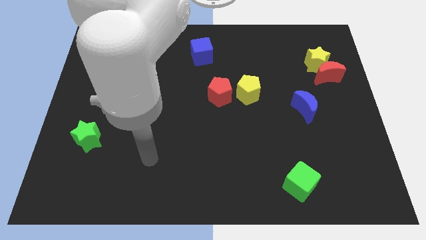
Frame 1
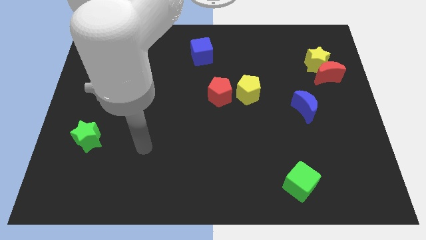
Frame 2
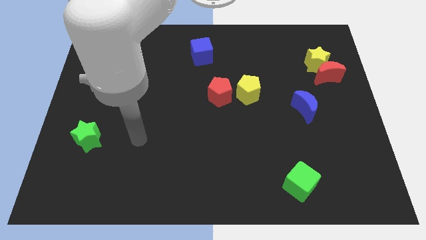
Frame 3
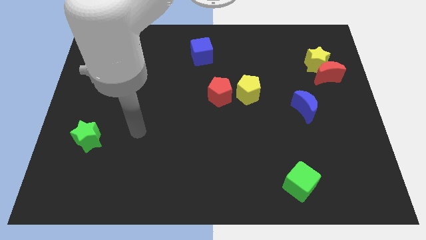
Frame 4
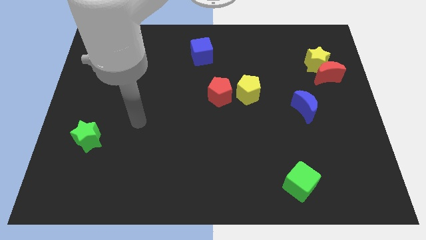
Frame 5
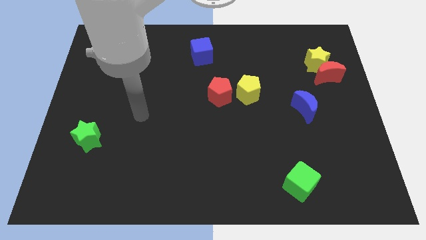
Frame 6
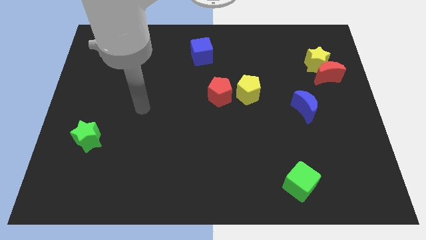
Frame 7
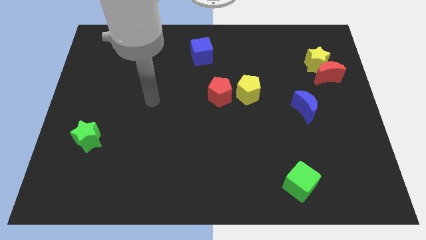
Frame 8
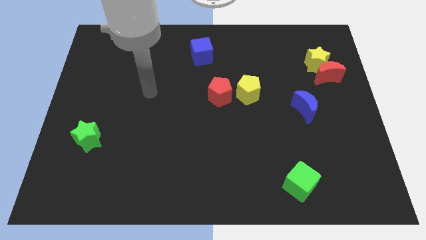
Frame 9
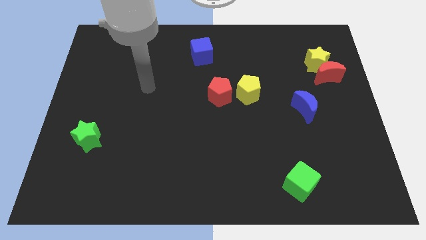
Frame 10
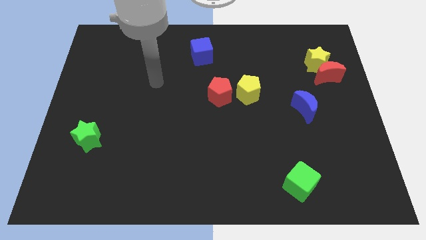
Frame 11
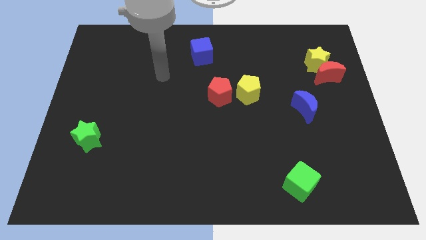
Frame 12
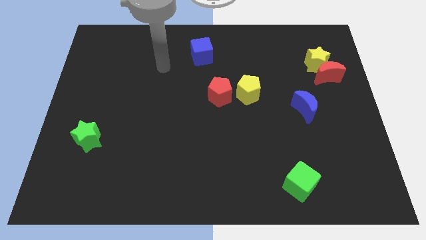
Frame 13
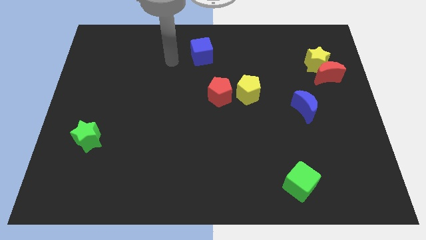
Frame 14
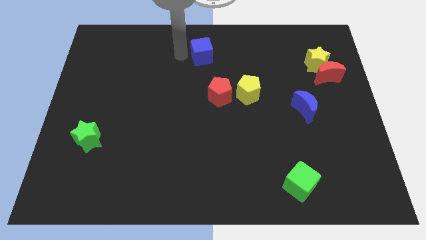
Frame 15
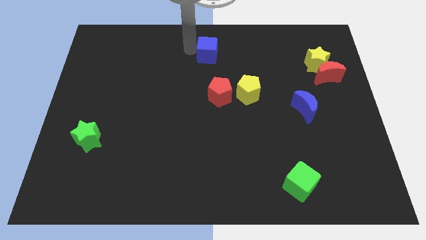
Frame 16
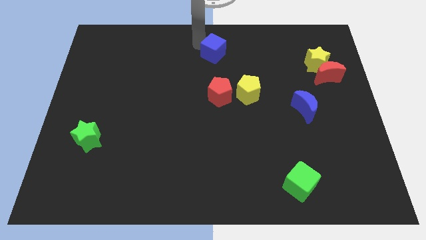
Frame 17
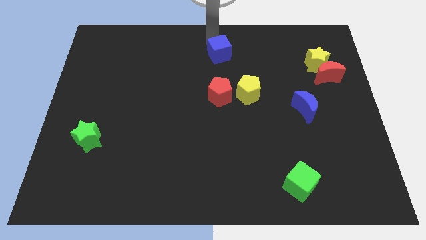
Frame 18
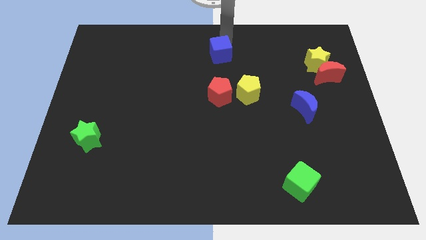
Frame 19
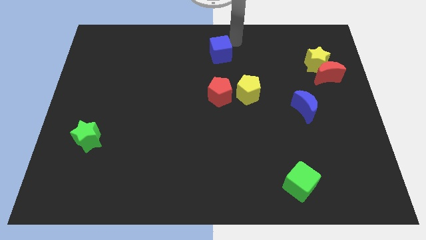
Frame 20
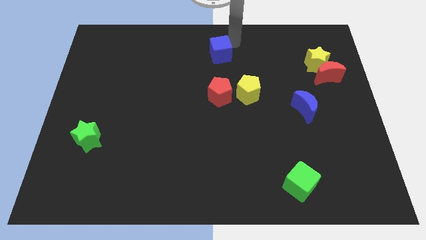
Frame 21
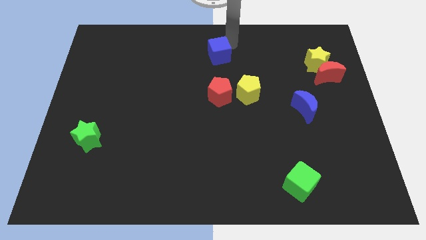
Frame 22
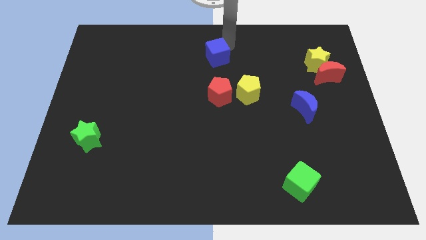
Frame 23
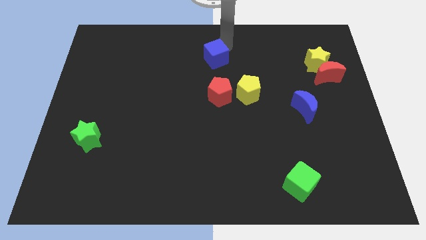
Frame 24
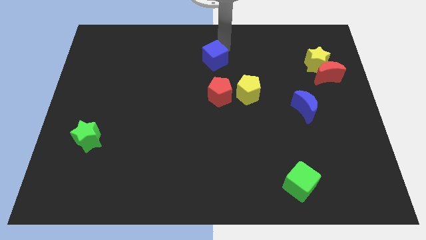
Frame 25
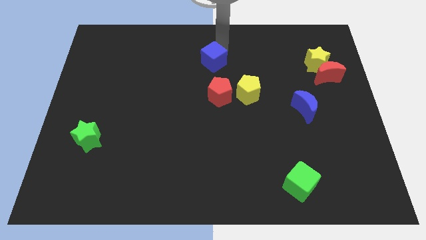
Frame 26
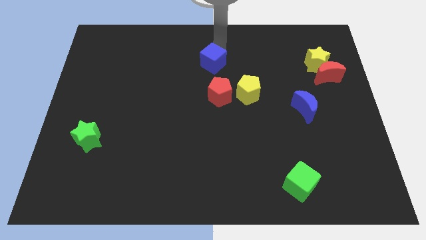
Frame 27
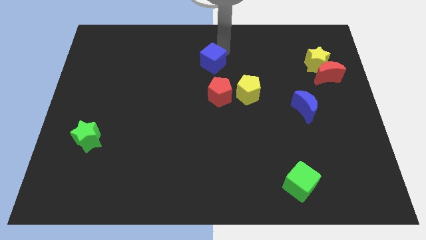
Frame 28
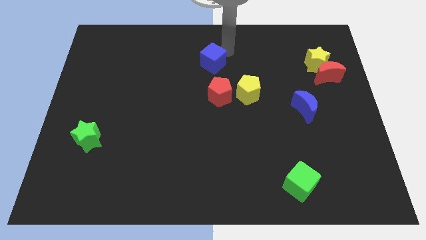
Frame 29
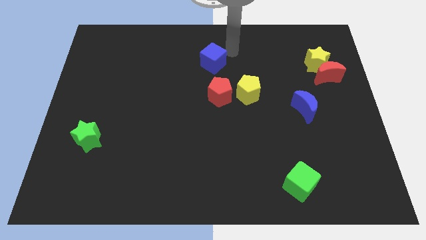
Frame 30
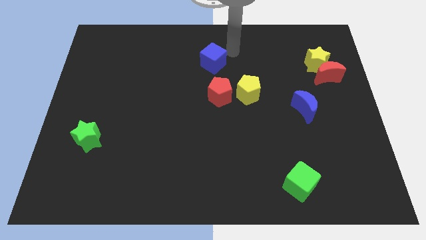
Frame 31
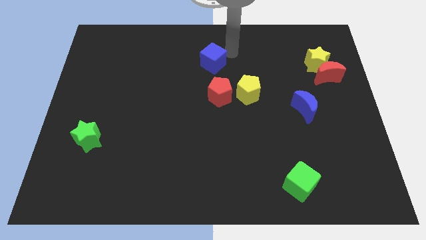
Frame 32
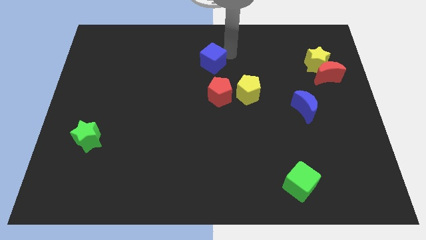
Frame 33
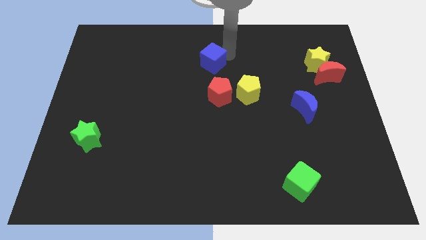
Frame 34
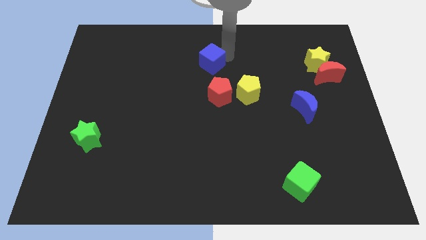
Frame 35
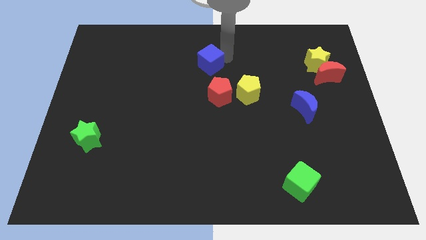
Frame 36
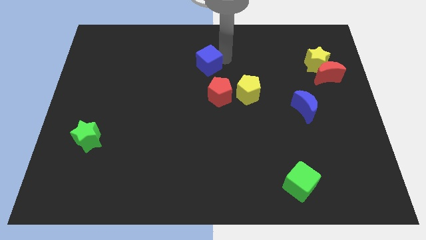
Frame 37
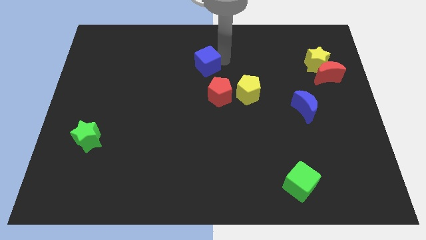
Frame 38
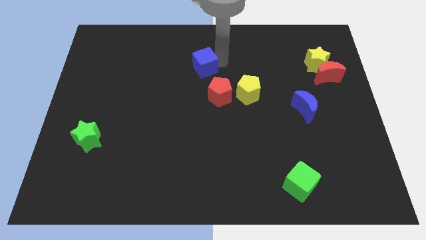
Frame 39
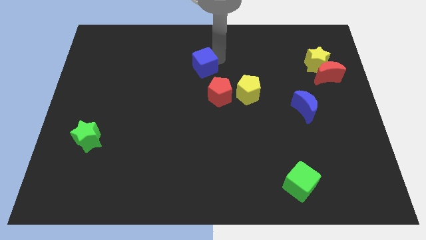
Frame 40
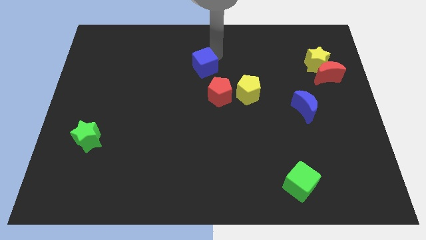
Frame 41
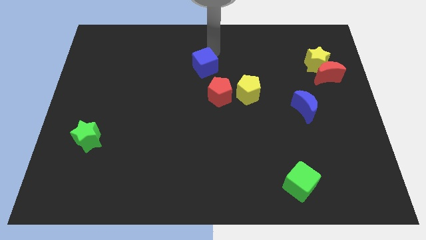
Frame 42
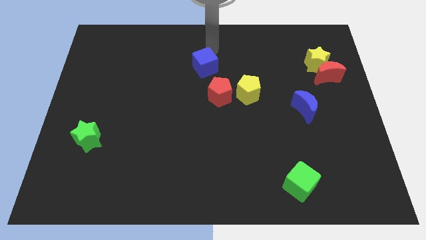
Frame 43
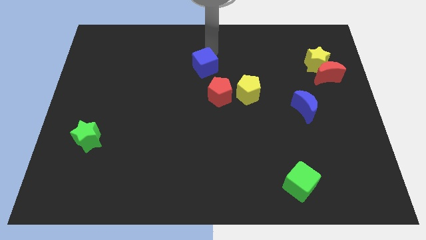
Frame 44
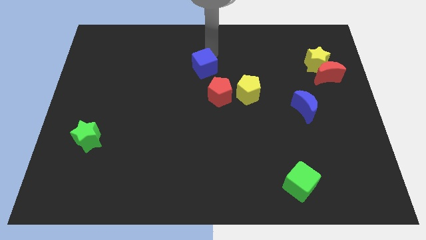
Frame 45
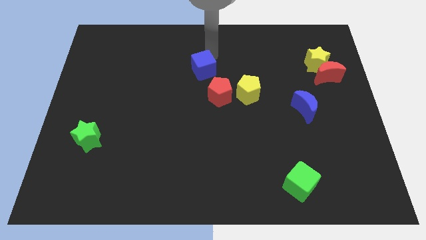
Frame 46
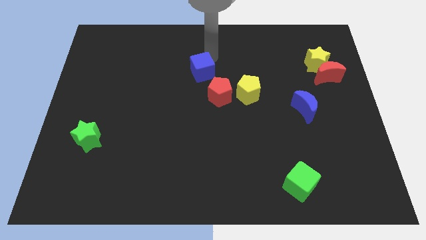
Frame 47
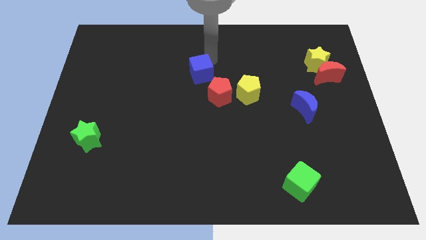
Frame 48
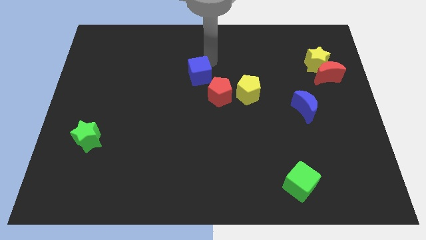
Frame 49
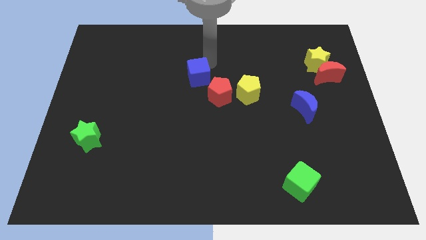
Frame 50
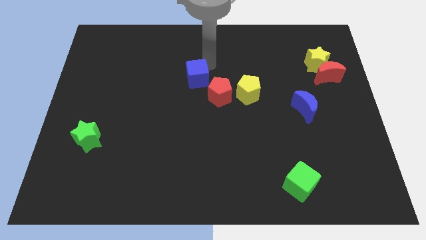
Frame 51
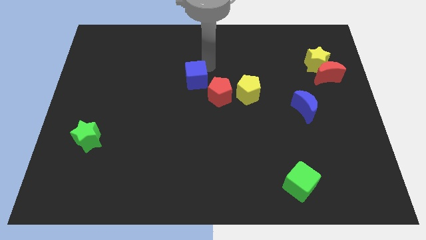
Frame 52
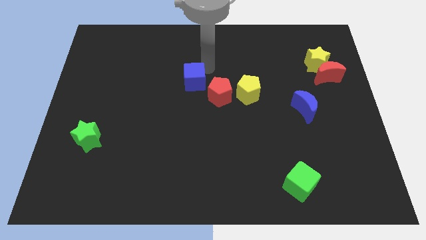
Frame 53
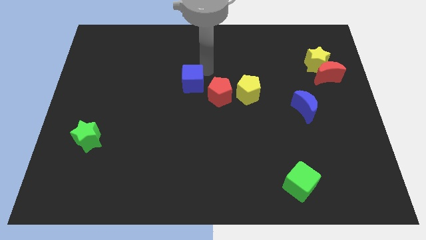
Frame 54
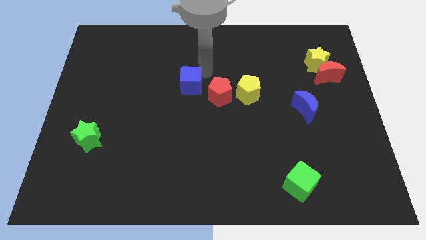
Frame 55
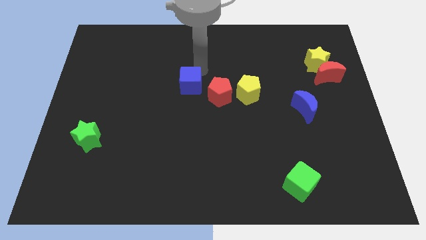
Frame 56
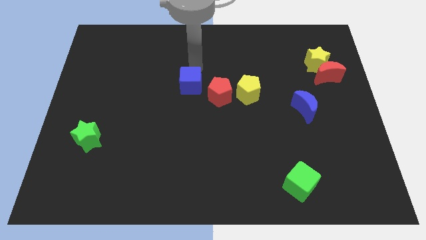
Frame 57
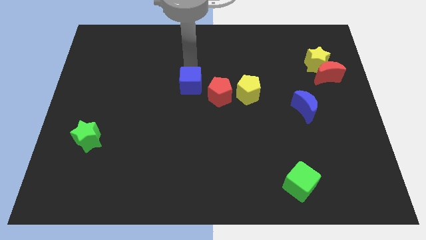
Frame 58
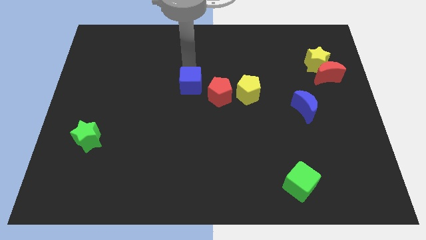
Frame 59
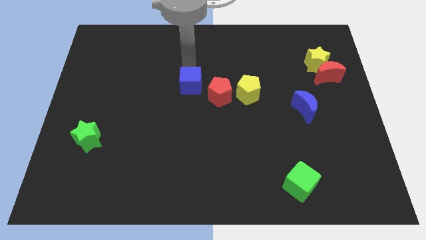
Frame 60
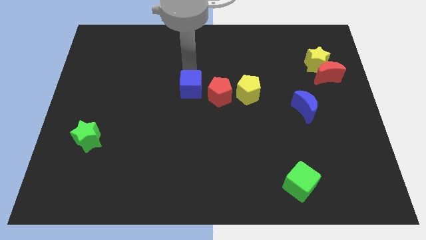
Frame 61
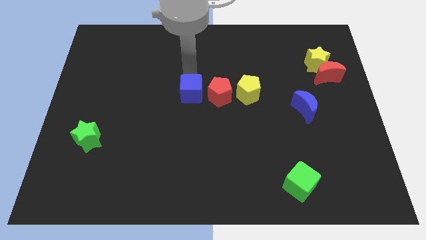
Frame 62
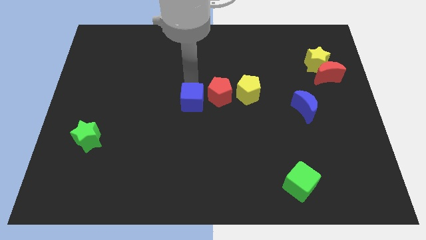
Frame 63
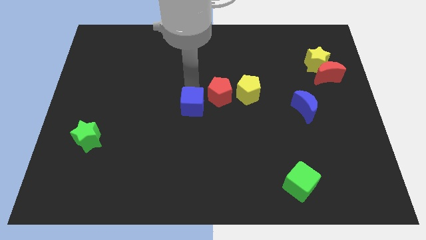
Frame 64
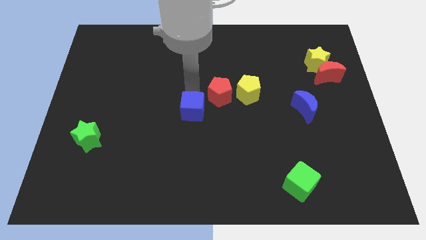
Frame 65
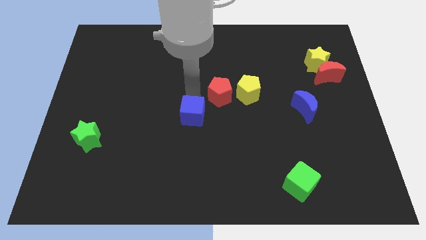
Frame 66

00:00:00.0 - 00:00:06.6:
push the blue cube downwards

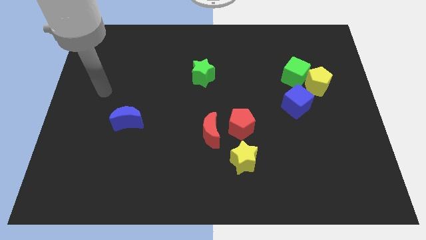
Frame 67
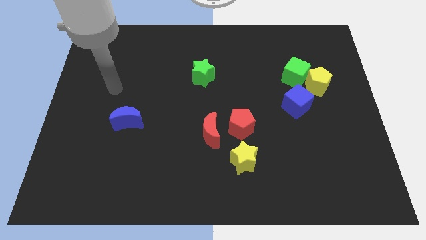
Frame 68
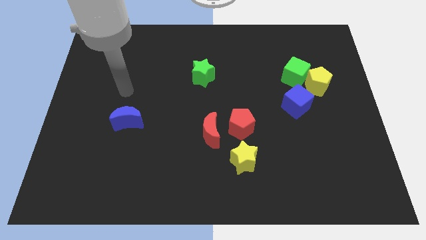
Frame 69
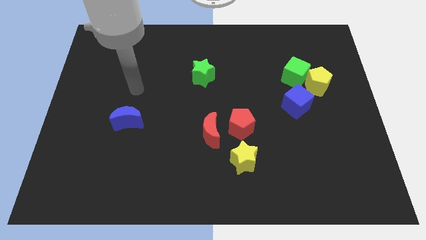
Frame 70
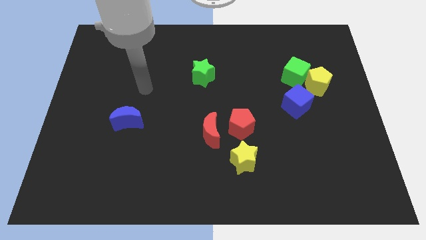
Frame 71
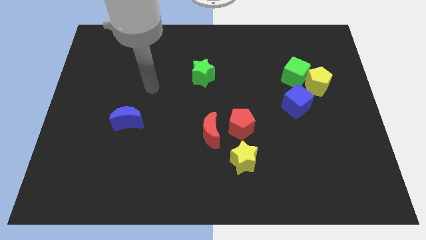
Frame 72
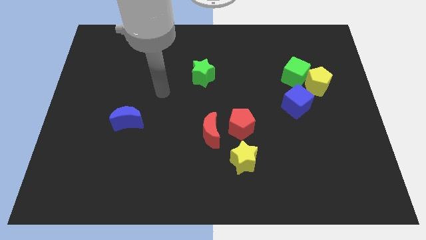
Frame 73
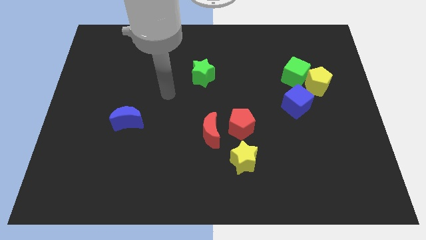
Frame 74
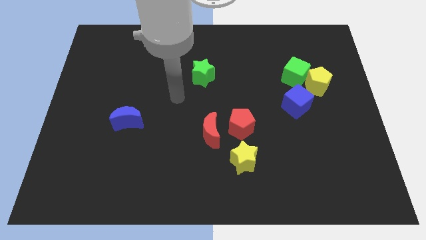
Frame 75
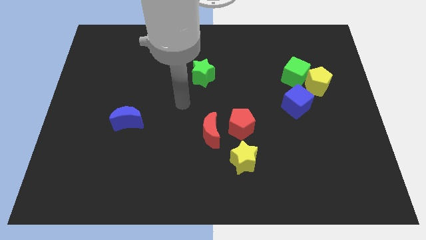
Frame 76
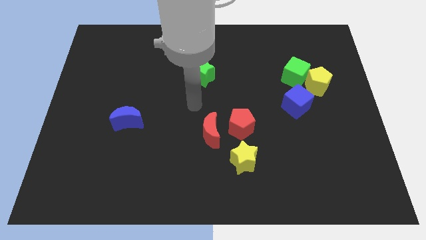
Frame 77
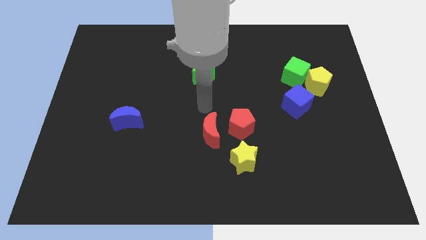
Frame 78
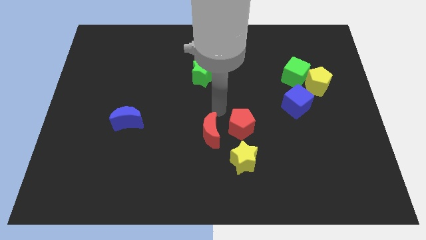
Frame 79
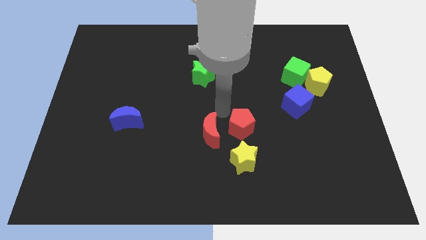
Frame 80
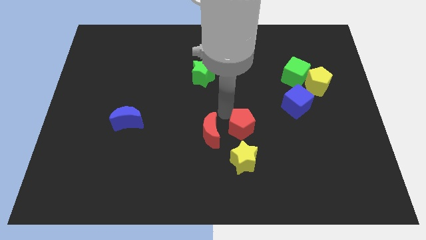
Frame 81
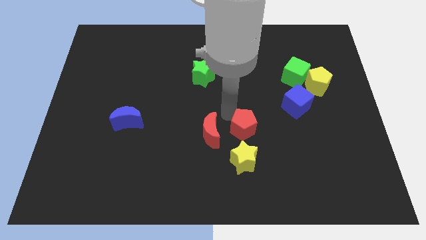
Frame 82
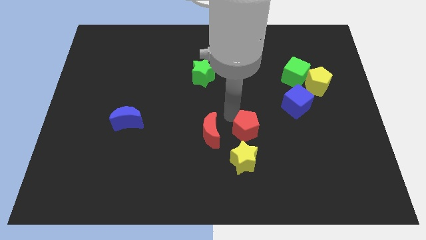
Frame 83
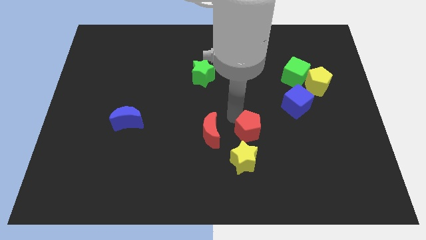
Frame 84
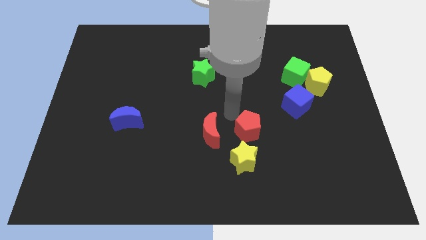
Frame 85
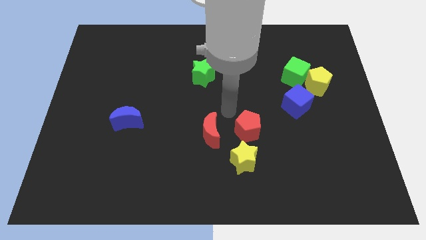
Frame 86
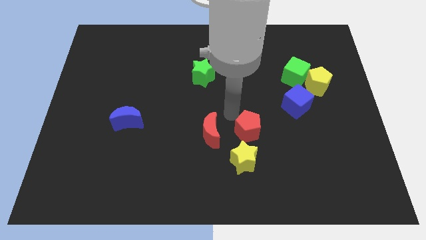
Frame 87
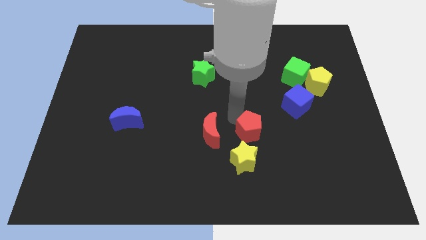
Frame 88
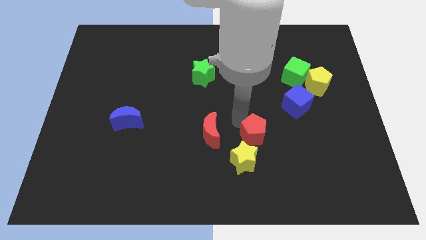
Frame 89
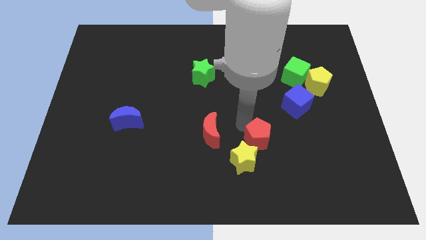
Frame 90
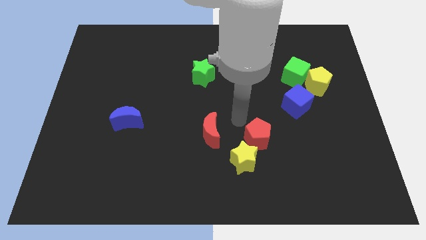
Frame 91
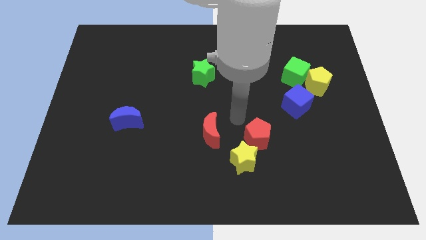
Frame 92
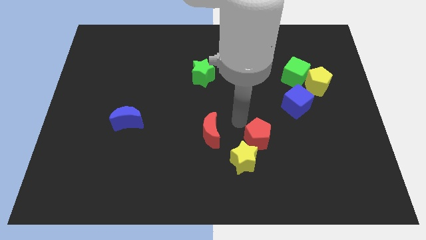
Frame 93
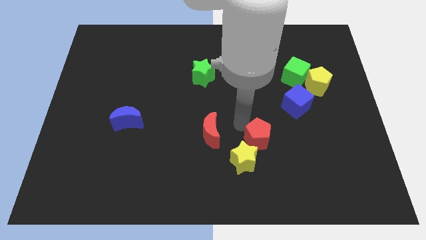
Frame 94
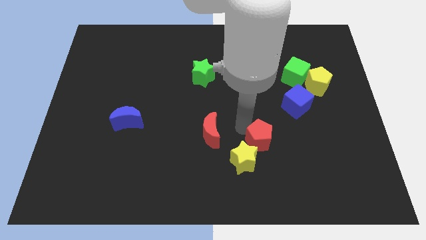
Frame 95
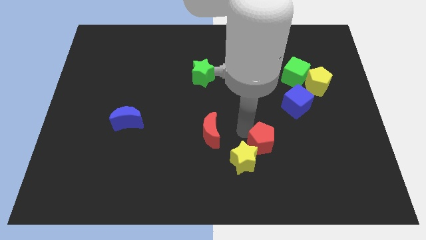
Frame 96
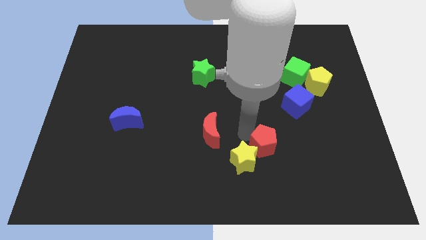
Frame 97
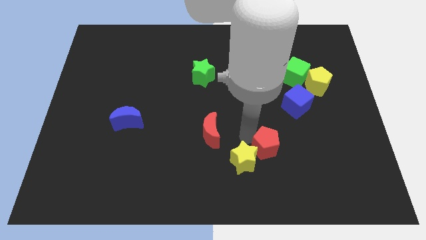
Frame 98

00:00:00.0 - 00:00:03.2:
push the red pentagon somewhat downwards and to the right diagonally
